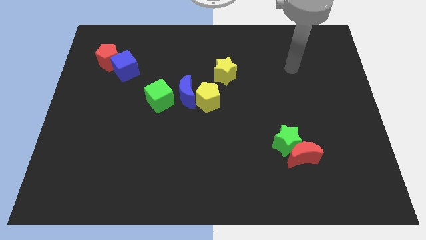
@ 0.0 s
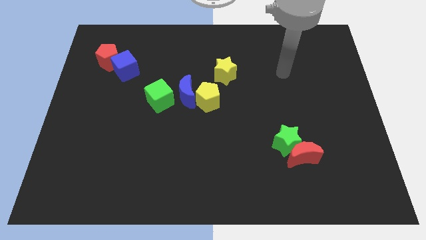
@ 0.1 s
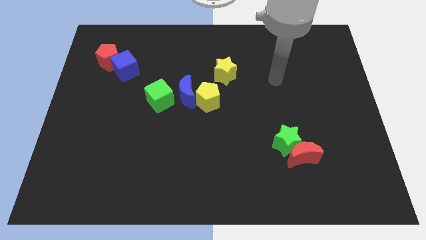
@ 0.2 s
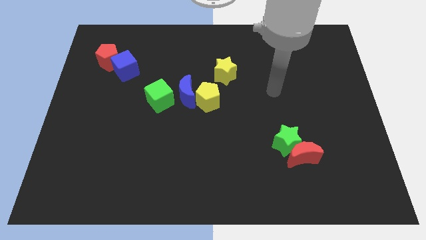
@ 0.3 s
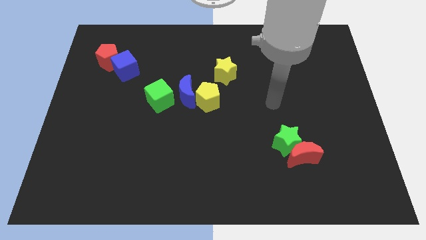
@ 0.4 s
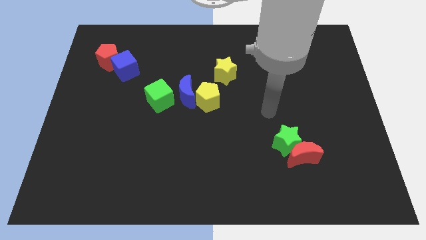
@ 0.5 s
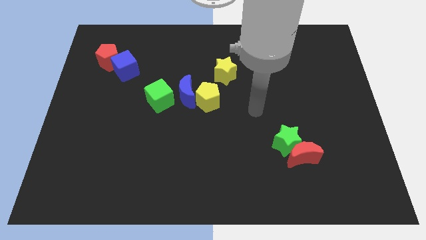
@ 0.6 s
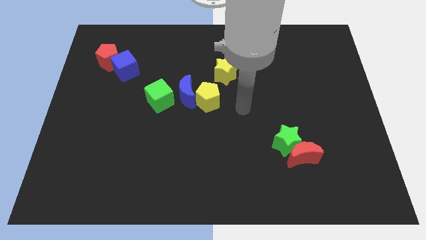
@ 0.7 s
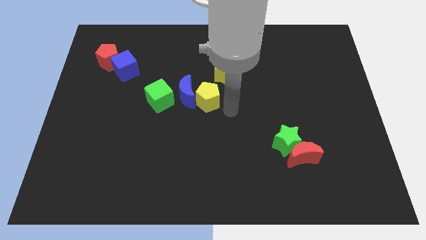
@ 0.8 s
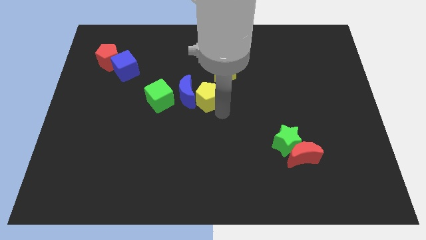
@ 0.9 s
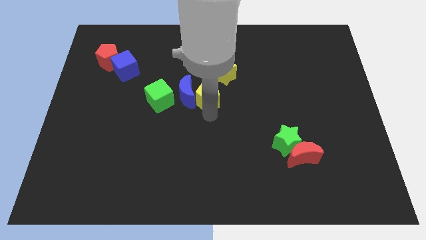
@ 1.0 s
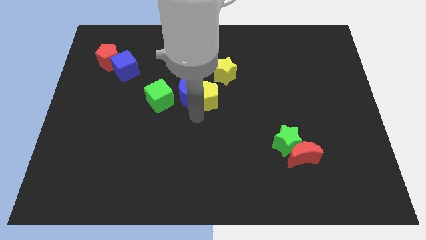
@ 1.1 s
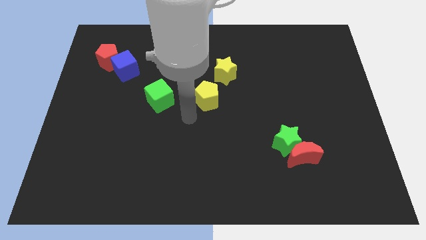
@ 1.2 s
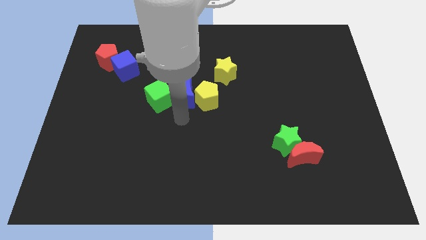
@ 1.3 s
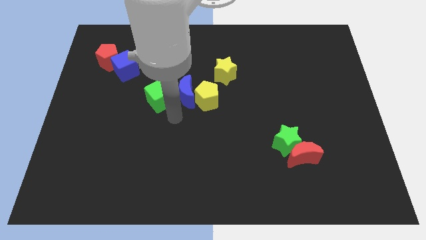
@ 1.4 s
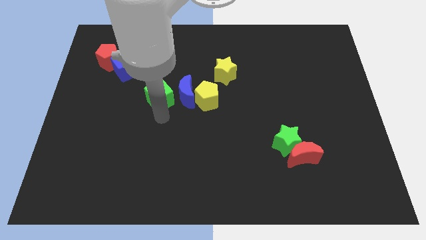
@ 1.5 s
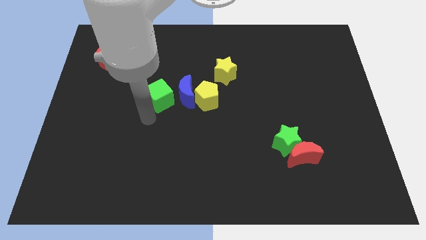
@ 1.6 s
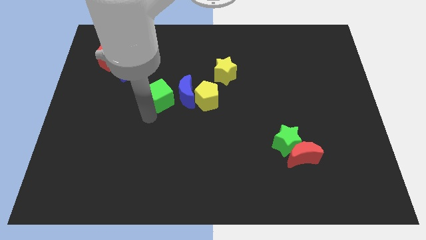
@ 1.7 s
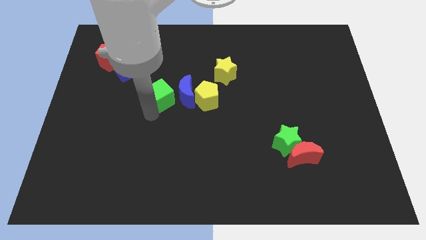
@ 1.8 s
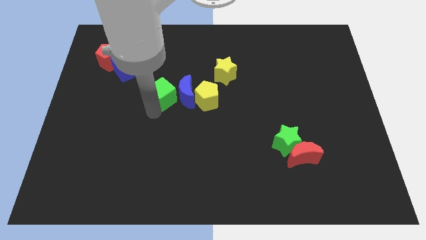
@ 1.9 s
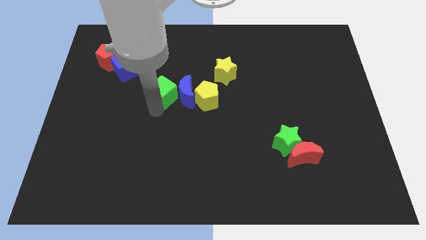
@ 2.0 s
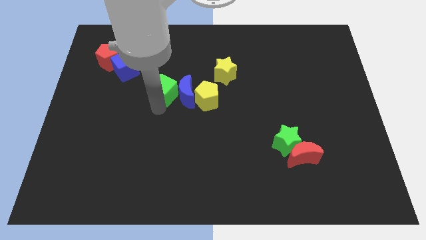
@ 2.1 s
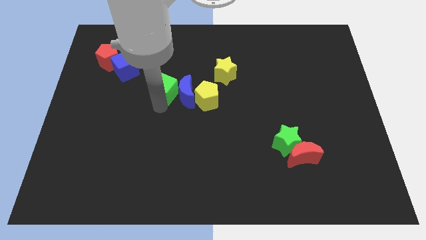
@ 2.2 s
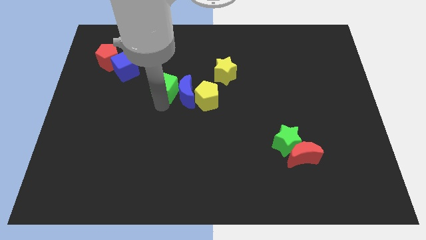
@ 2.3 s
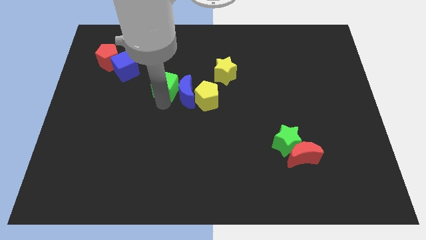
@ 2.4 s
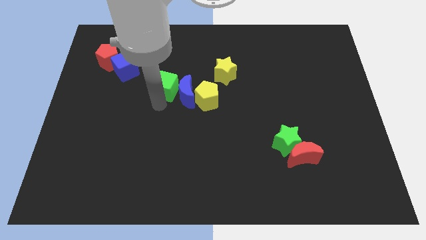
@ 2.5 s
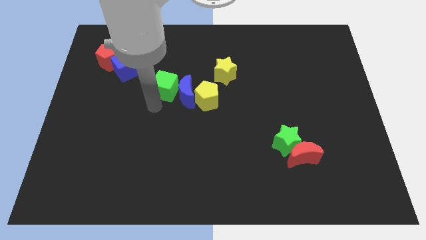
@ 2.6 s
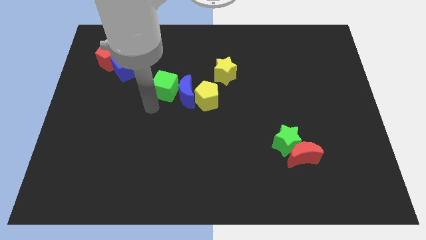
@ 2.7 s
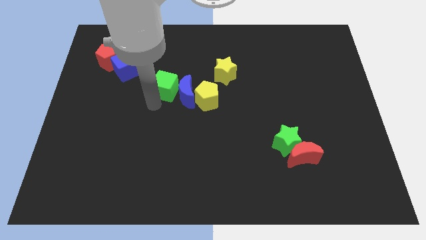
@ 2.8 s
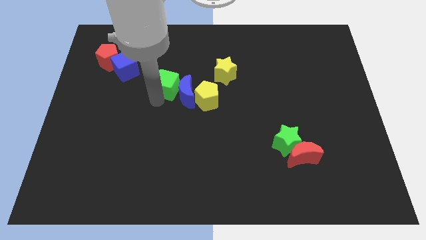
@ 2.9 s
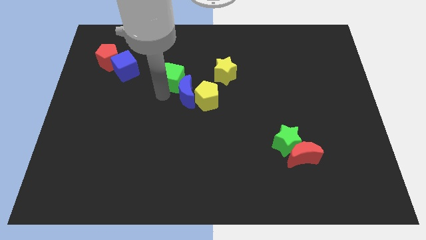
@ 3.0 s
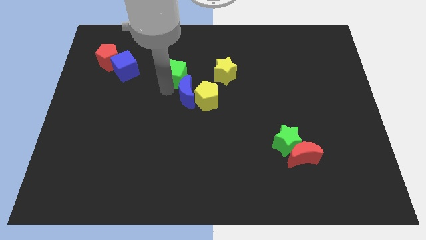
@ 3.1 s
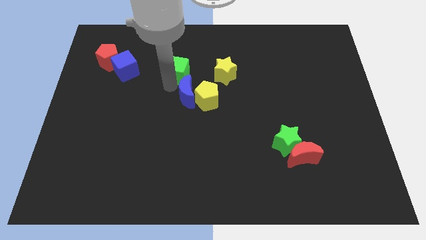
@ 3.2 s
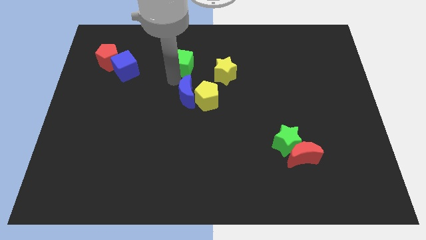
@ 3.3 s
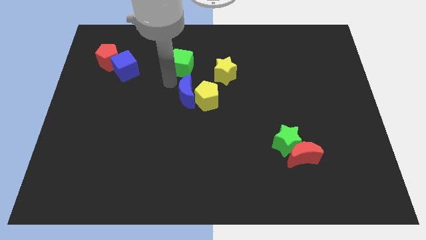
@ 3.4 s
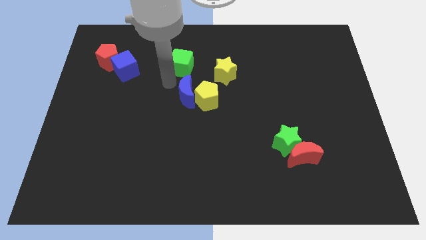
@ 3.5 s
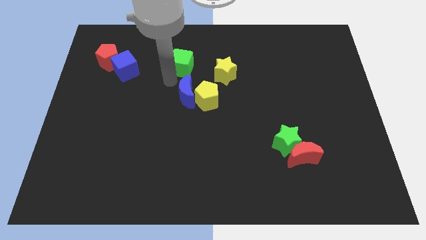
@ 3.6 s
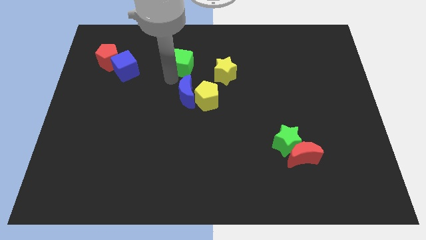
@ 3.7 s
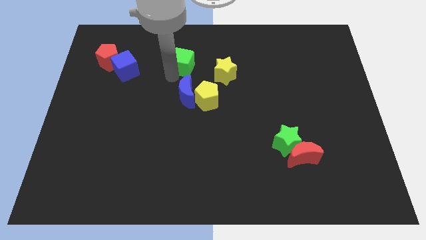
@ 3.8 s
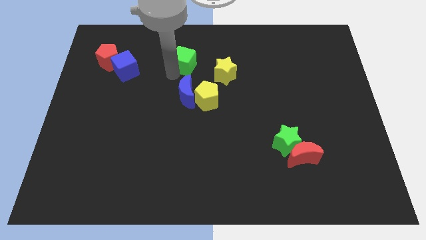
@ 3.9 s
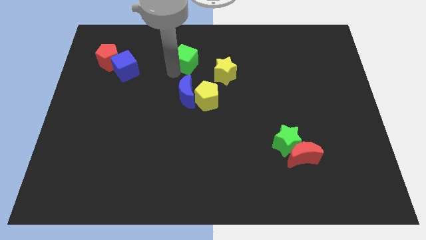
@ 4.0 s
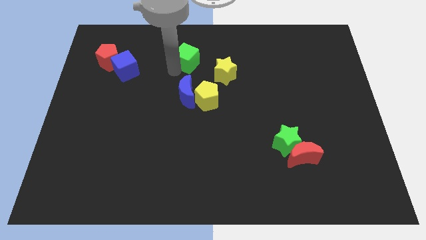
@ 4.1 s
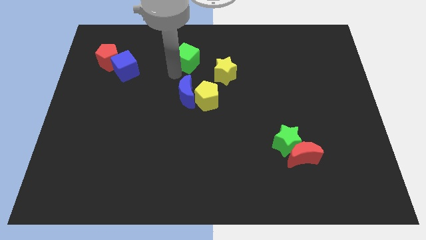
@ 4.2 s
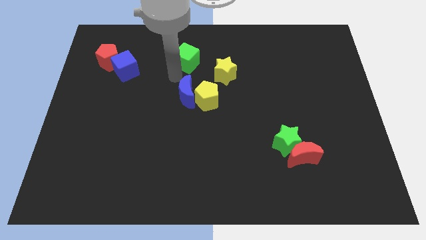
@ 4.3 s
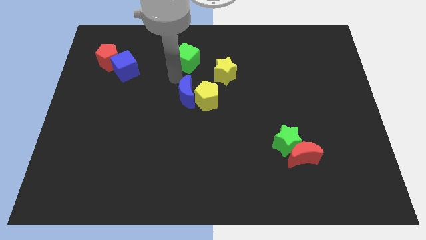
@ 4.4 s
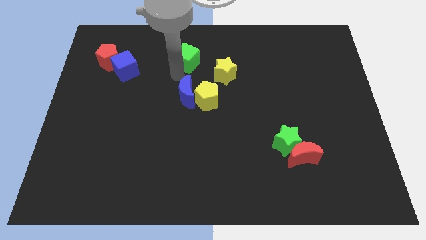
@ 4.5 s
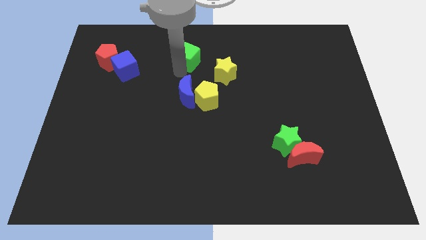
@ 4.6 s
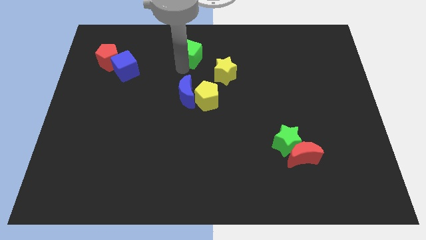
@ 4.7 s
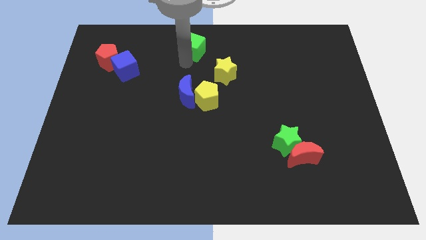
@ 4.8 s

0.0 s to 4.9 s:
slide the green cube to the towards your base

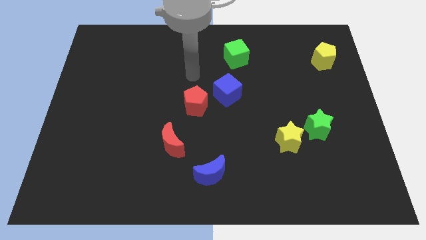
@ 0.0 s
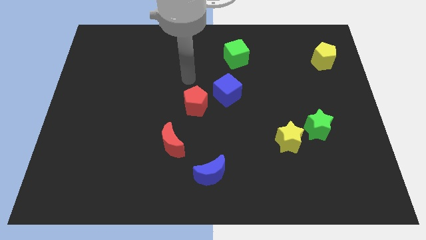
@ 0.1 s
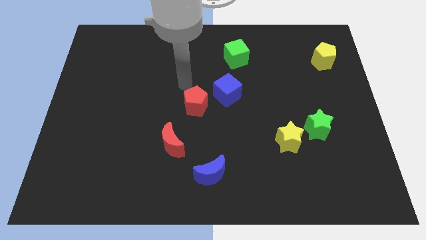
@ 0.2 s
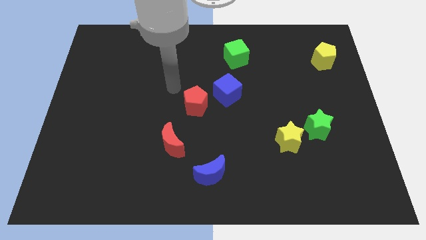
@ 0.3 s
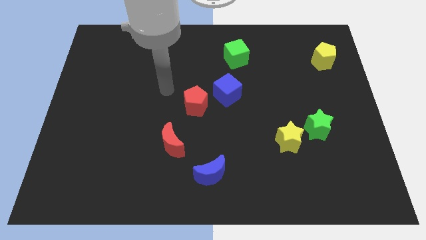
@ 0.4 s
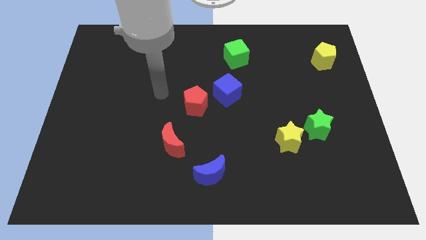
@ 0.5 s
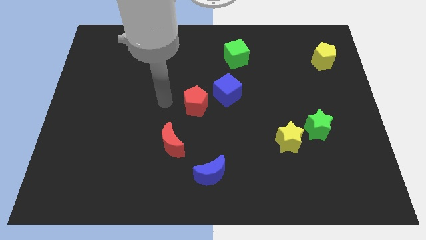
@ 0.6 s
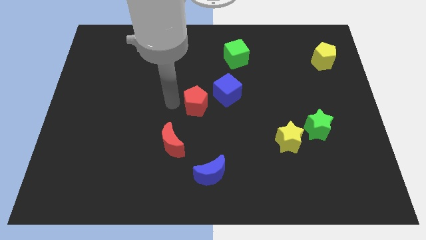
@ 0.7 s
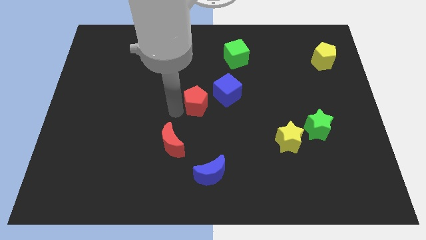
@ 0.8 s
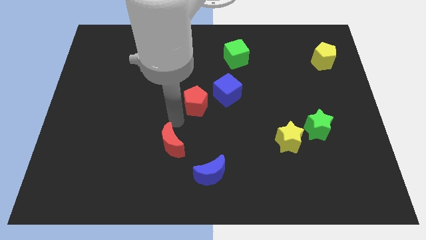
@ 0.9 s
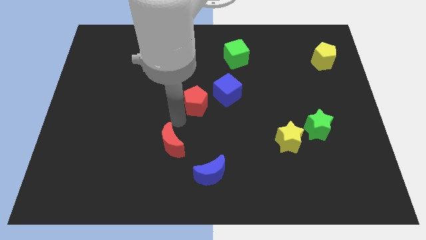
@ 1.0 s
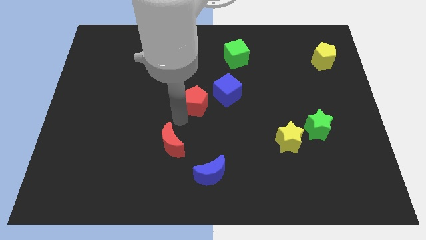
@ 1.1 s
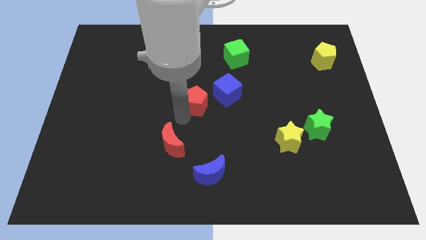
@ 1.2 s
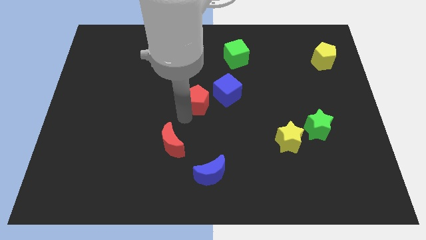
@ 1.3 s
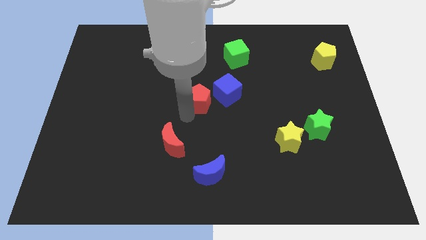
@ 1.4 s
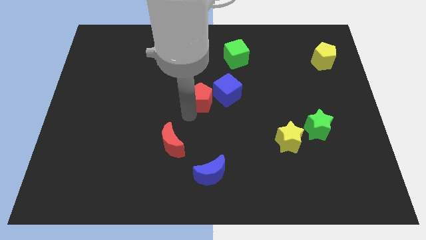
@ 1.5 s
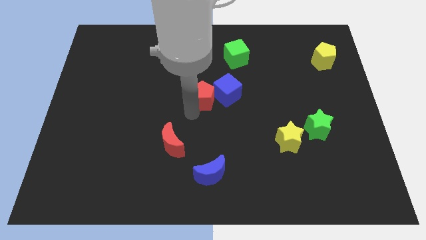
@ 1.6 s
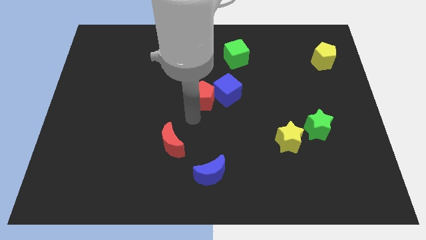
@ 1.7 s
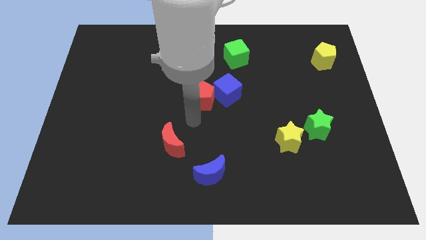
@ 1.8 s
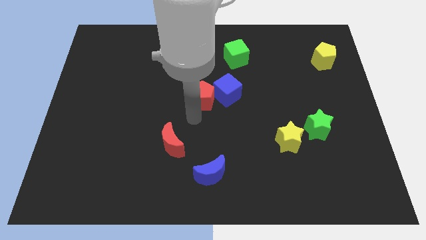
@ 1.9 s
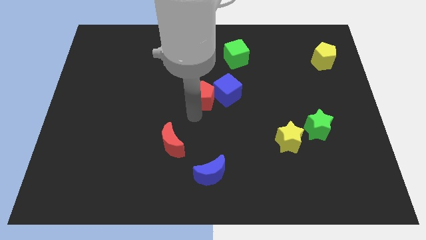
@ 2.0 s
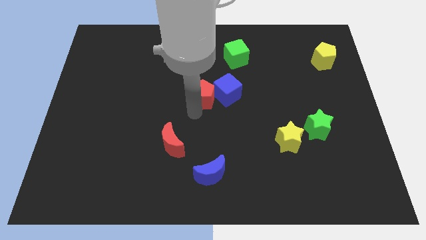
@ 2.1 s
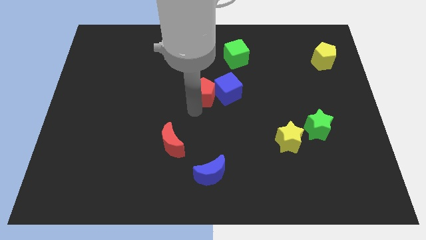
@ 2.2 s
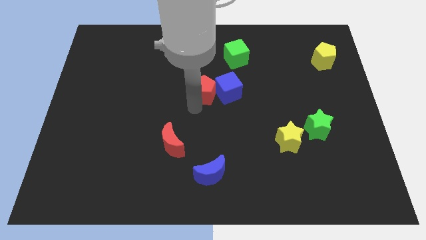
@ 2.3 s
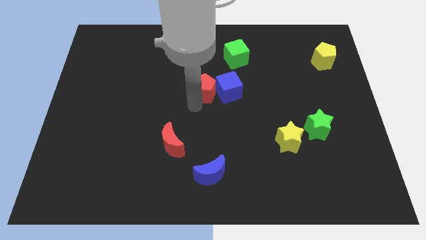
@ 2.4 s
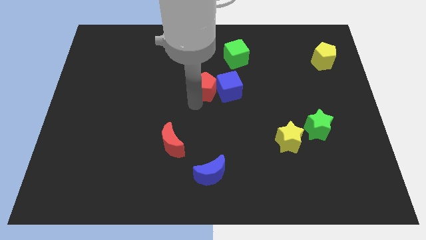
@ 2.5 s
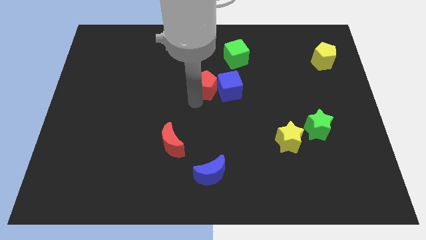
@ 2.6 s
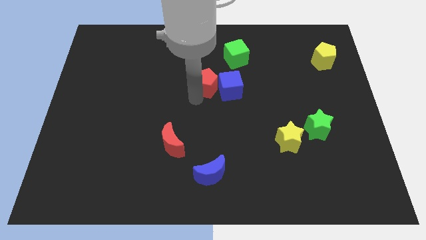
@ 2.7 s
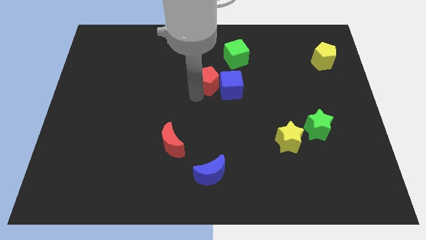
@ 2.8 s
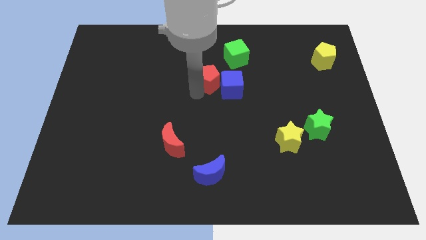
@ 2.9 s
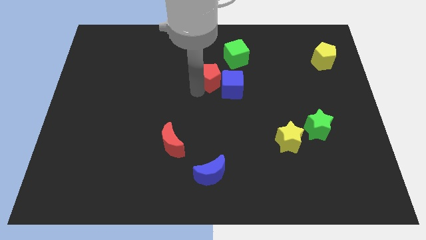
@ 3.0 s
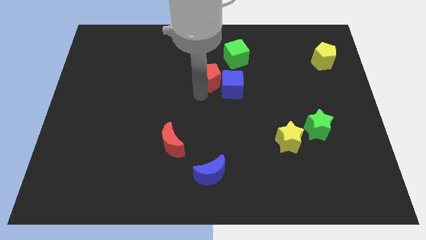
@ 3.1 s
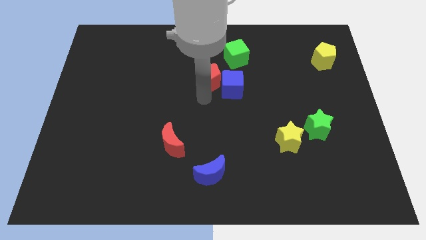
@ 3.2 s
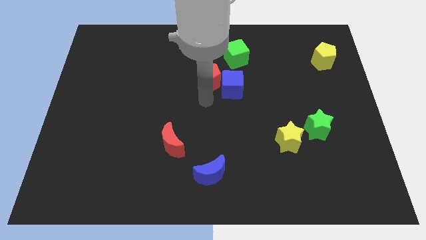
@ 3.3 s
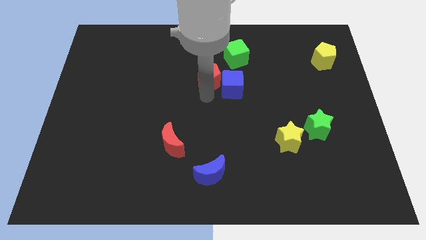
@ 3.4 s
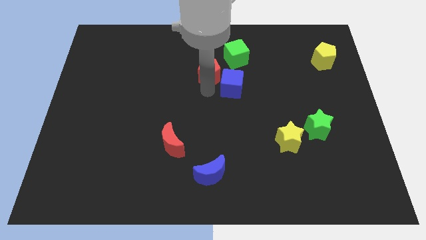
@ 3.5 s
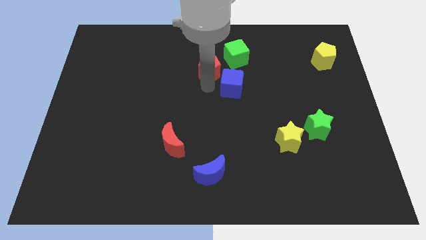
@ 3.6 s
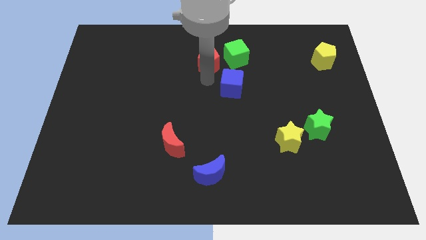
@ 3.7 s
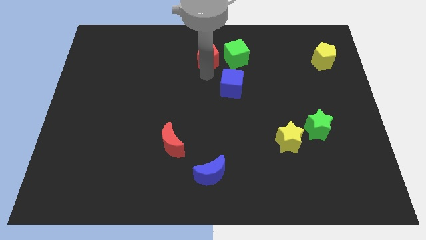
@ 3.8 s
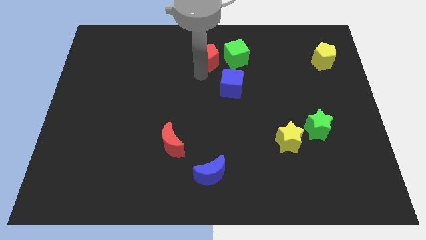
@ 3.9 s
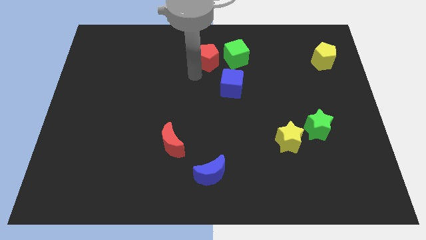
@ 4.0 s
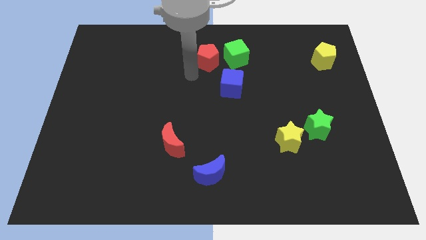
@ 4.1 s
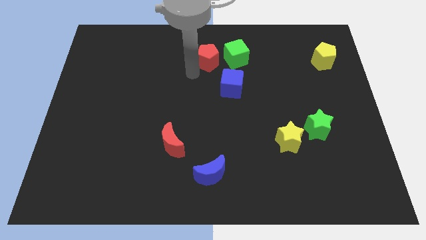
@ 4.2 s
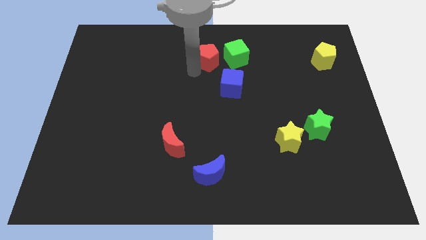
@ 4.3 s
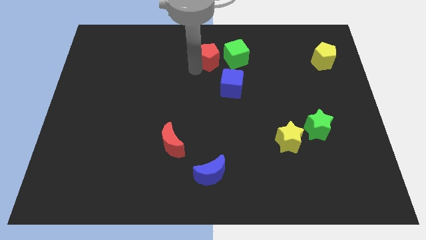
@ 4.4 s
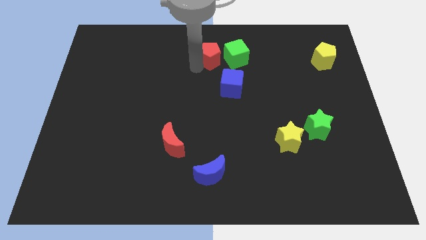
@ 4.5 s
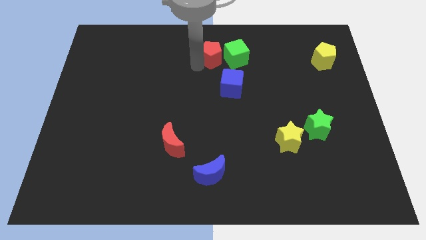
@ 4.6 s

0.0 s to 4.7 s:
push the red pentagon to the top side
